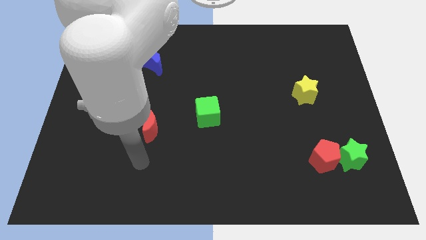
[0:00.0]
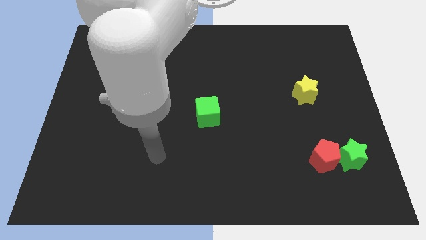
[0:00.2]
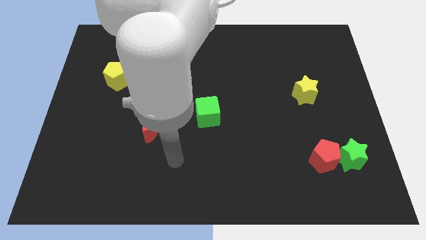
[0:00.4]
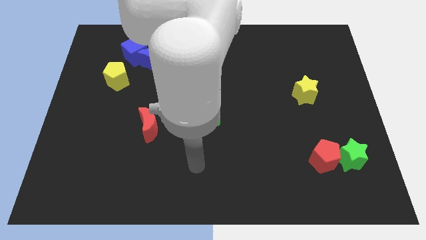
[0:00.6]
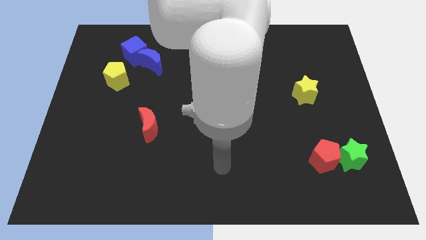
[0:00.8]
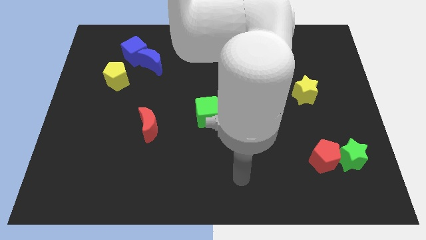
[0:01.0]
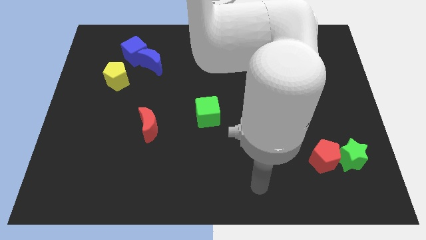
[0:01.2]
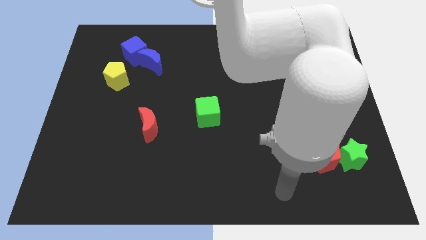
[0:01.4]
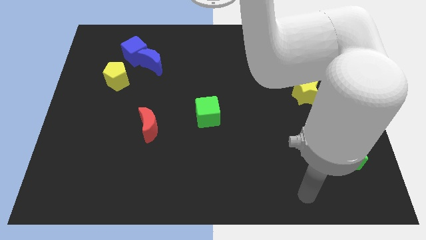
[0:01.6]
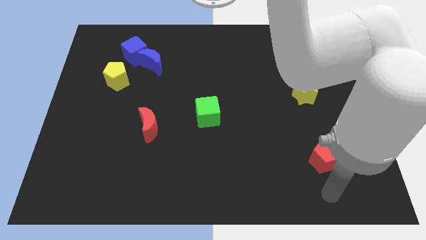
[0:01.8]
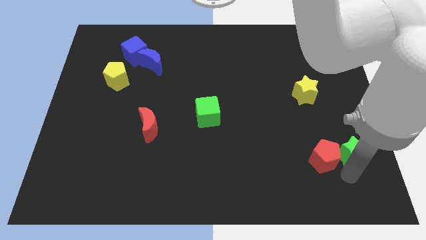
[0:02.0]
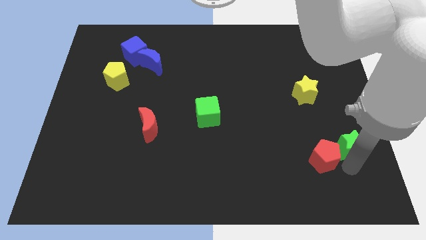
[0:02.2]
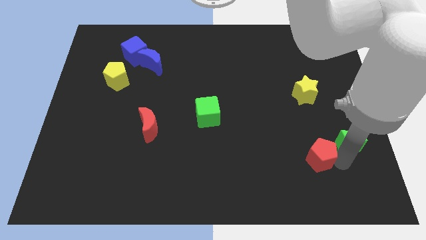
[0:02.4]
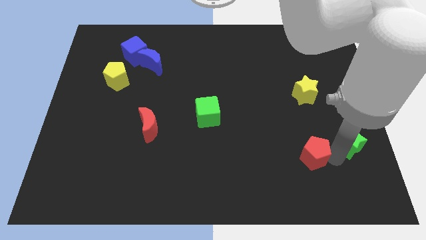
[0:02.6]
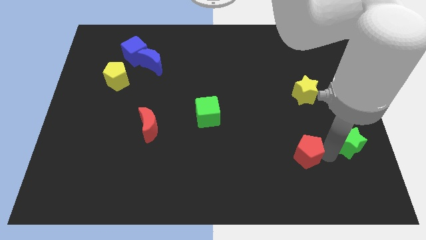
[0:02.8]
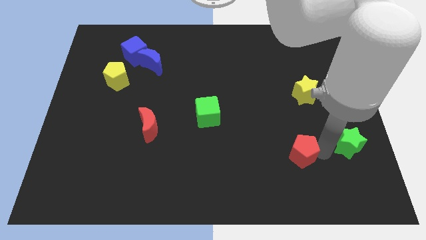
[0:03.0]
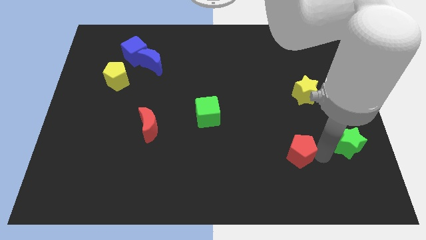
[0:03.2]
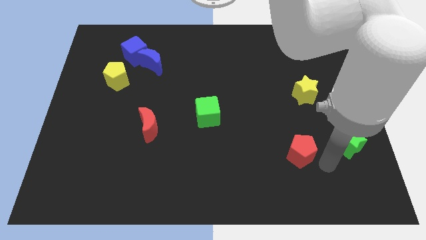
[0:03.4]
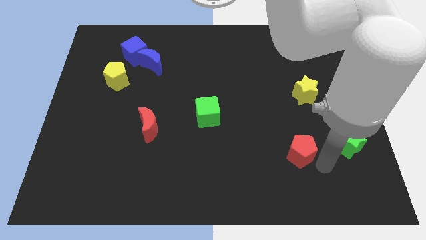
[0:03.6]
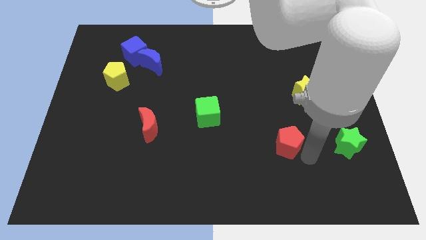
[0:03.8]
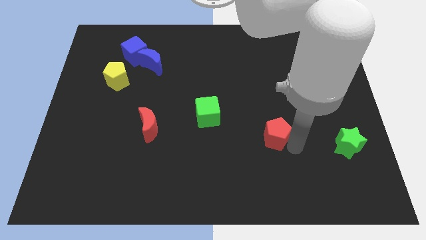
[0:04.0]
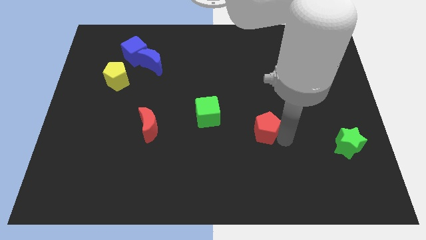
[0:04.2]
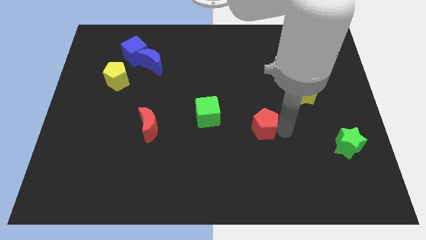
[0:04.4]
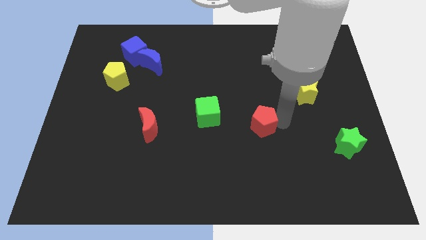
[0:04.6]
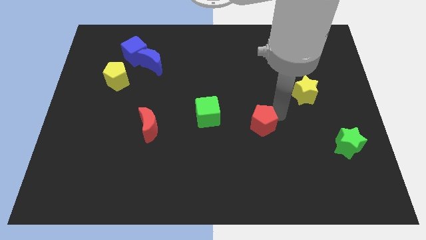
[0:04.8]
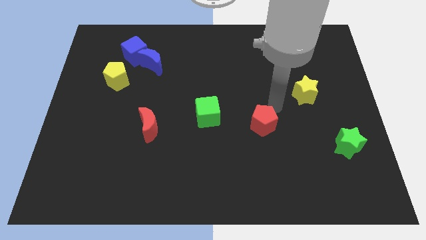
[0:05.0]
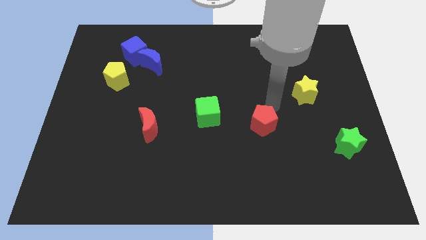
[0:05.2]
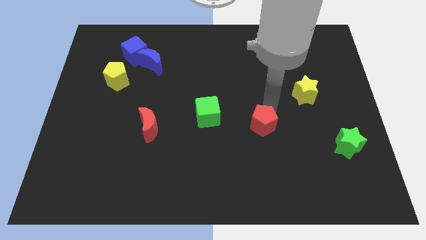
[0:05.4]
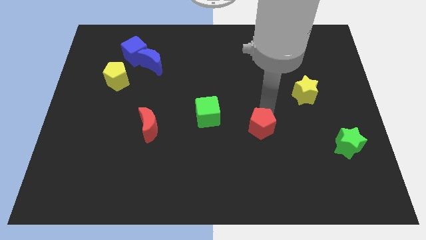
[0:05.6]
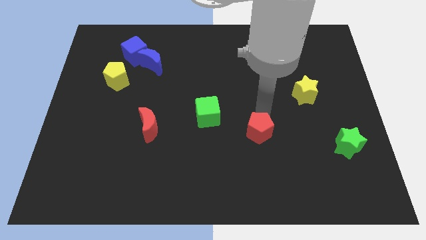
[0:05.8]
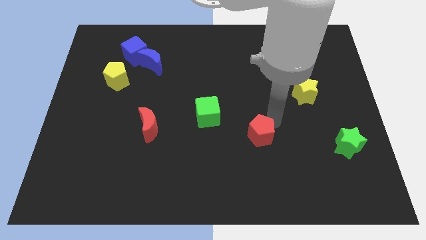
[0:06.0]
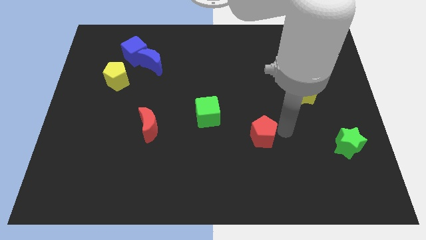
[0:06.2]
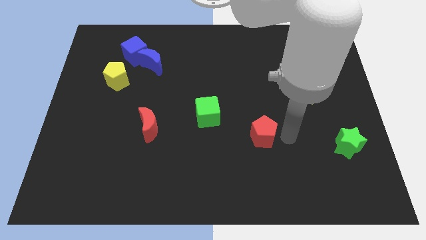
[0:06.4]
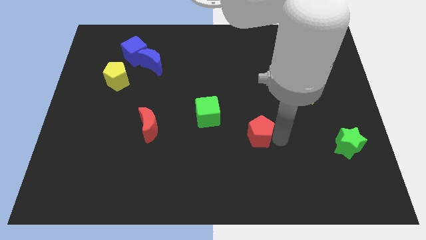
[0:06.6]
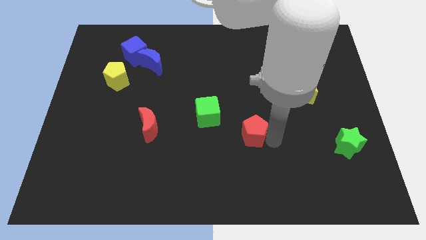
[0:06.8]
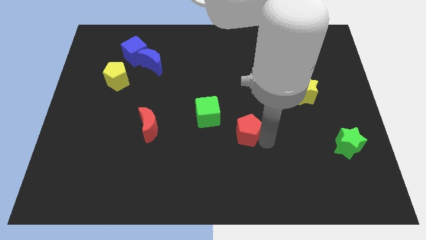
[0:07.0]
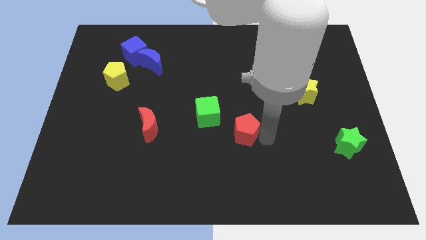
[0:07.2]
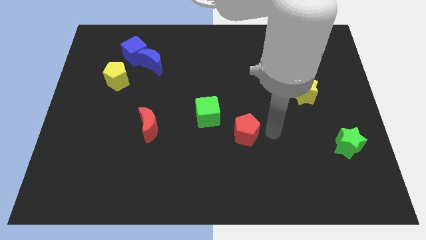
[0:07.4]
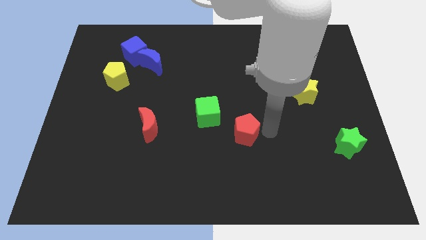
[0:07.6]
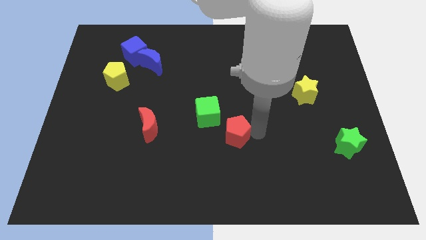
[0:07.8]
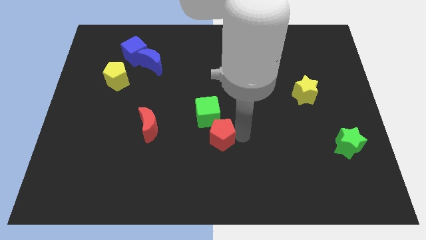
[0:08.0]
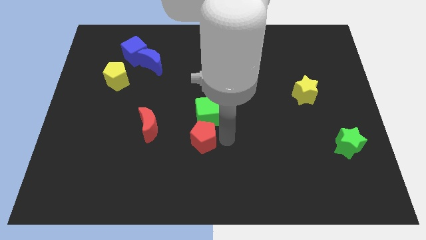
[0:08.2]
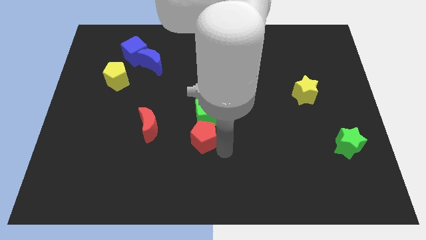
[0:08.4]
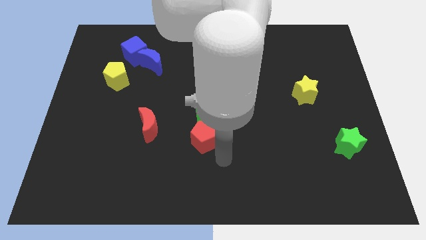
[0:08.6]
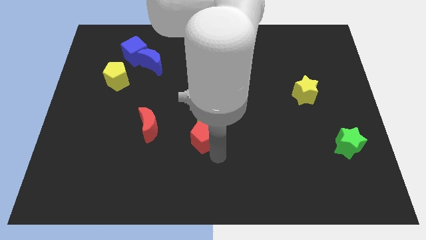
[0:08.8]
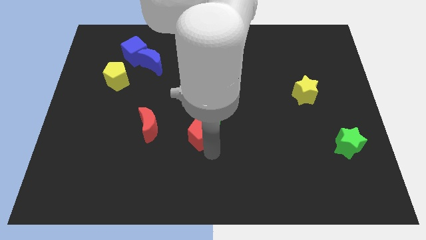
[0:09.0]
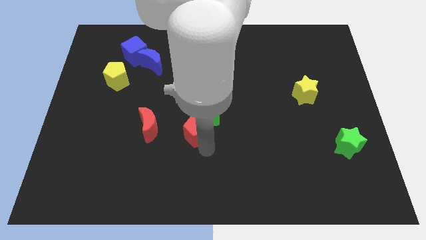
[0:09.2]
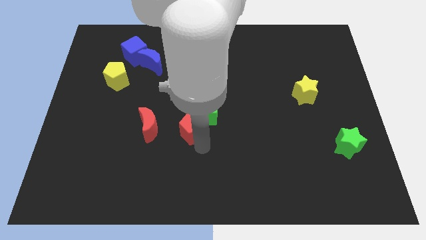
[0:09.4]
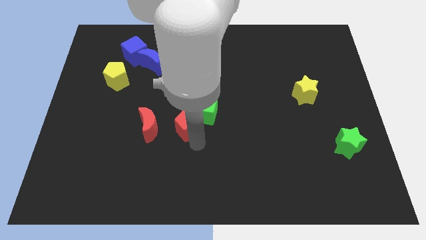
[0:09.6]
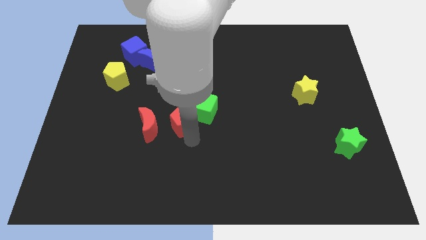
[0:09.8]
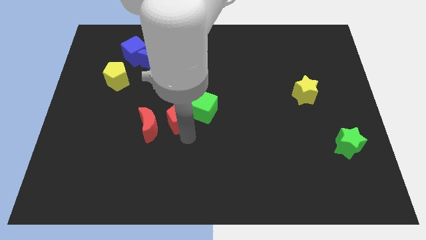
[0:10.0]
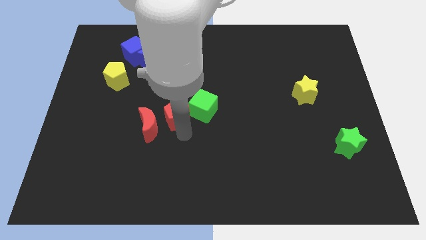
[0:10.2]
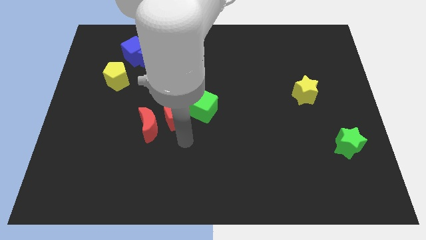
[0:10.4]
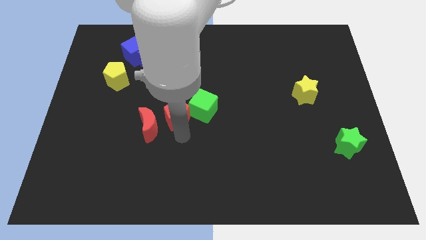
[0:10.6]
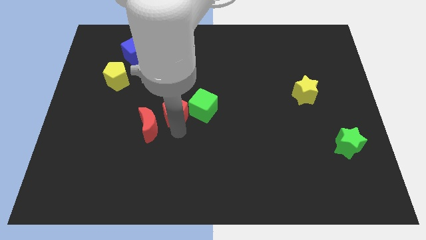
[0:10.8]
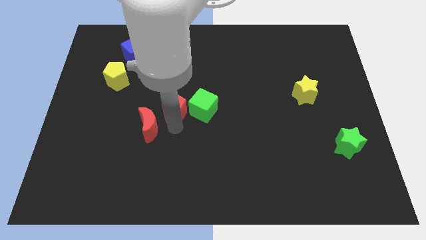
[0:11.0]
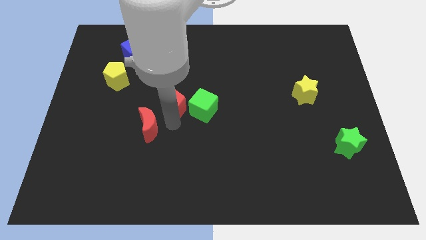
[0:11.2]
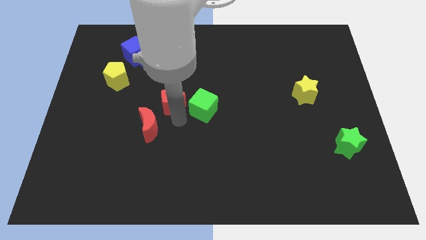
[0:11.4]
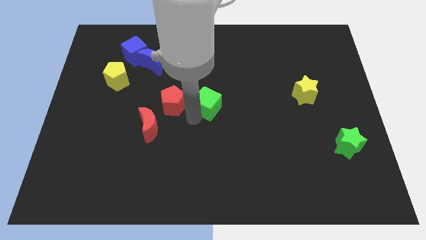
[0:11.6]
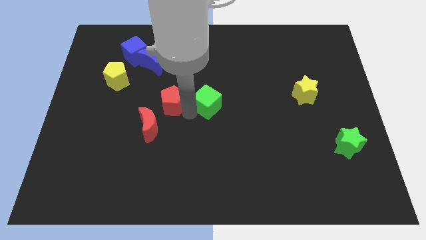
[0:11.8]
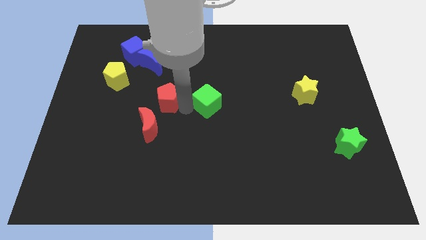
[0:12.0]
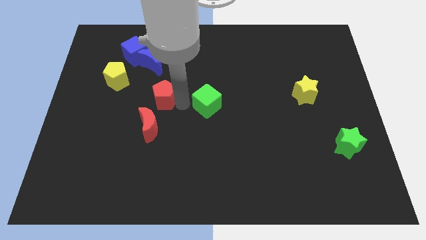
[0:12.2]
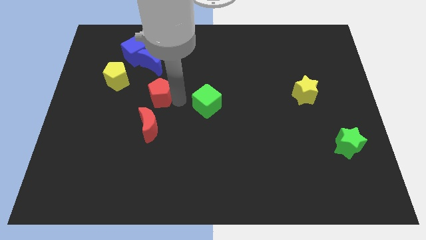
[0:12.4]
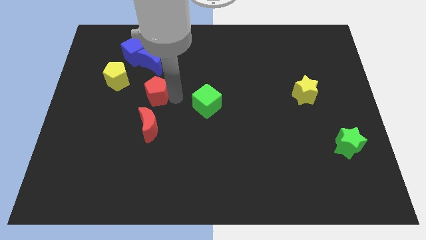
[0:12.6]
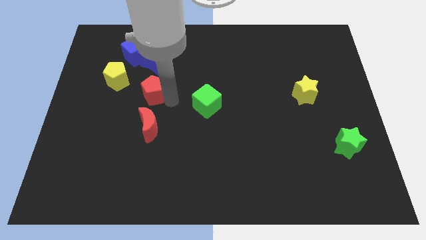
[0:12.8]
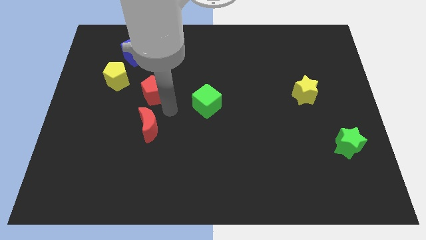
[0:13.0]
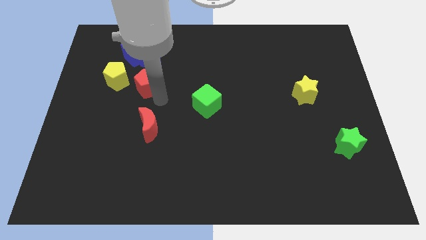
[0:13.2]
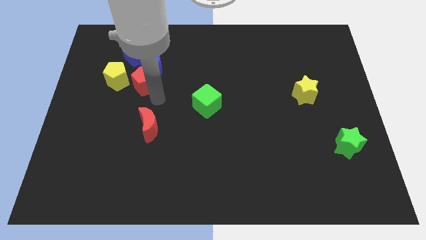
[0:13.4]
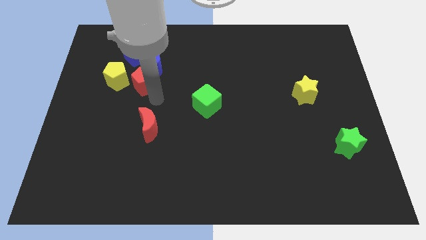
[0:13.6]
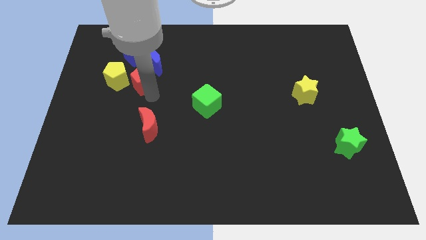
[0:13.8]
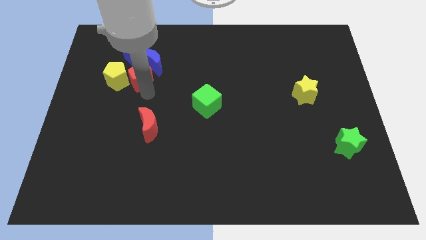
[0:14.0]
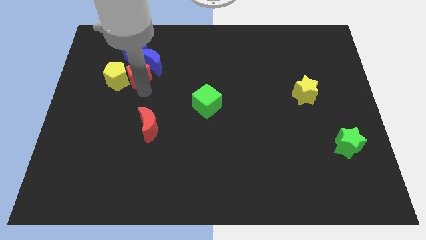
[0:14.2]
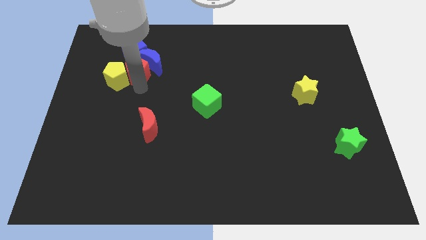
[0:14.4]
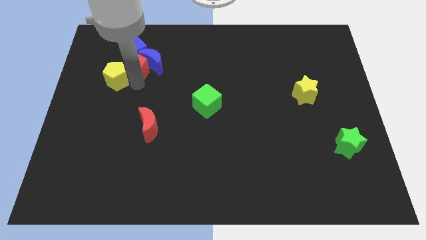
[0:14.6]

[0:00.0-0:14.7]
slide the red pentagon close to the blue cube
